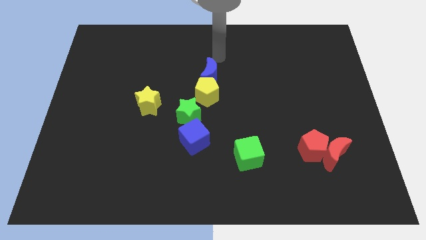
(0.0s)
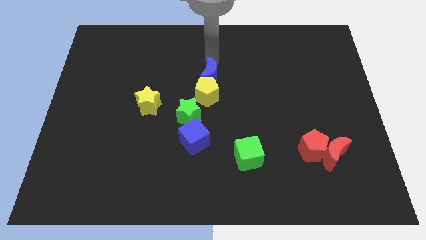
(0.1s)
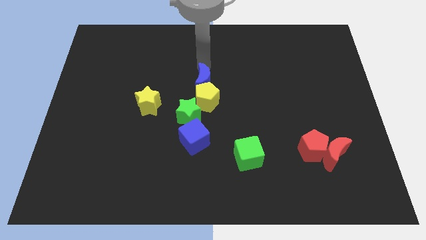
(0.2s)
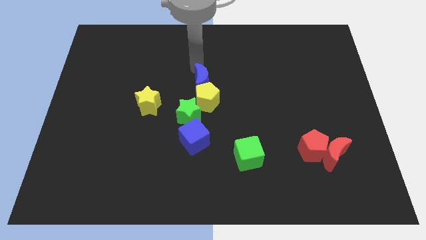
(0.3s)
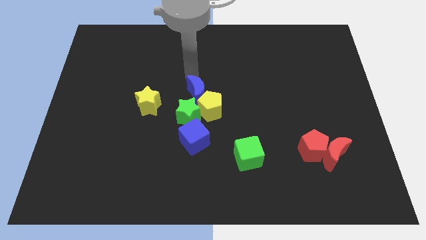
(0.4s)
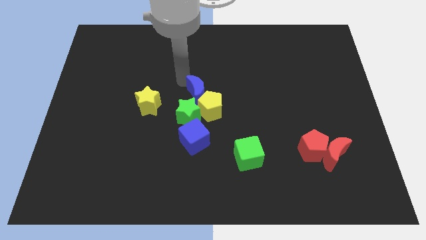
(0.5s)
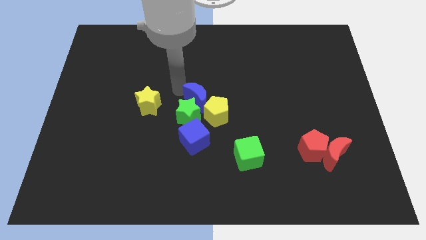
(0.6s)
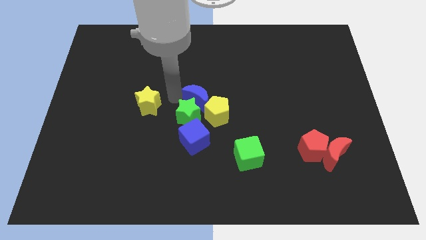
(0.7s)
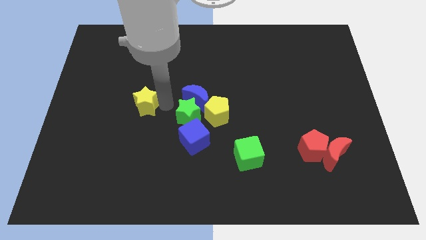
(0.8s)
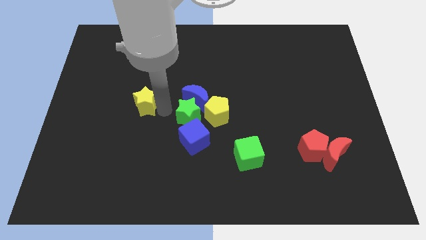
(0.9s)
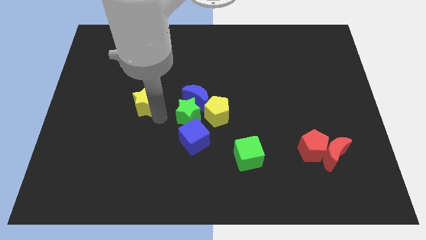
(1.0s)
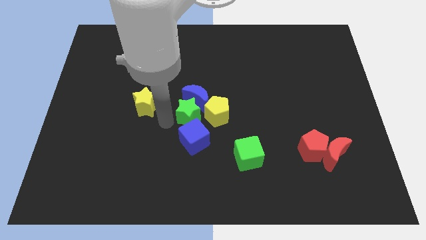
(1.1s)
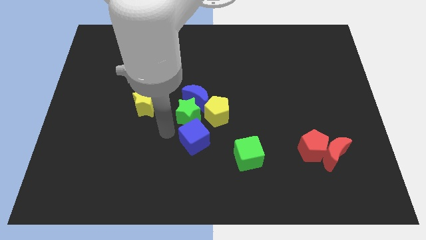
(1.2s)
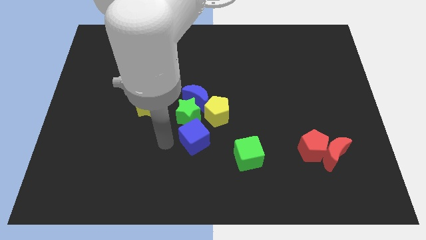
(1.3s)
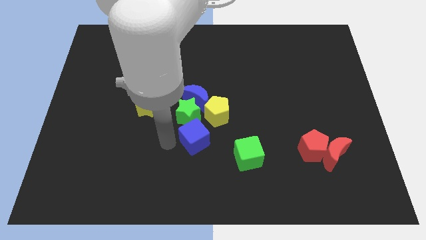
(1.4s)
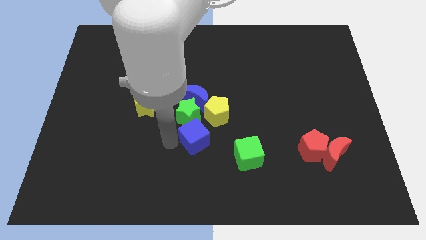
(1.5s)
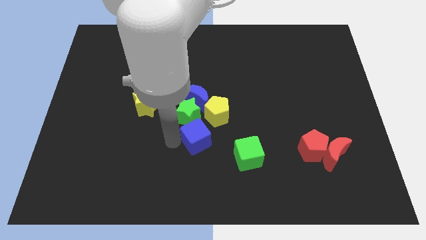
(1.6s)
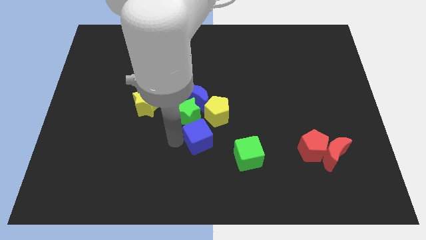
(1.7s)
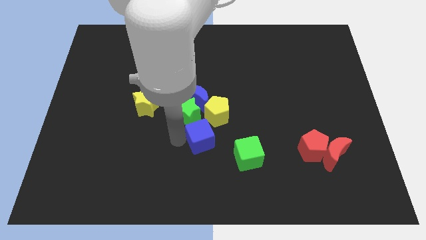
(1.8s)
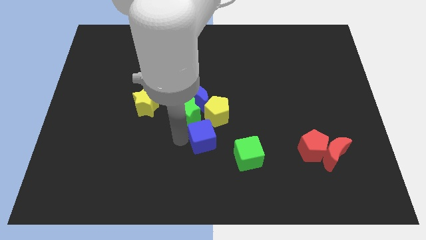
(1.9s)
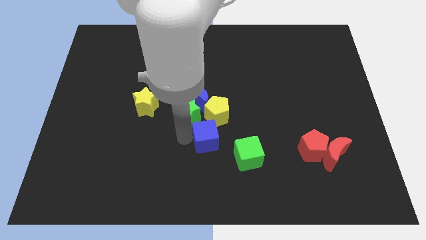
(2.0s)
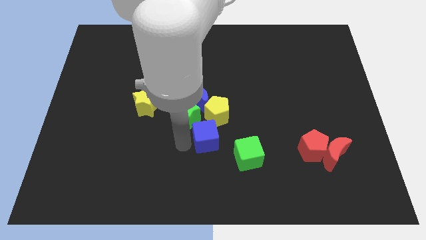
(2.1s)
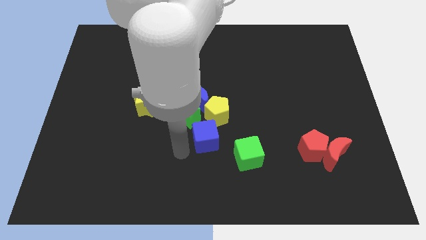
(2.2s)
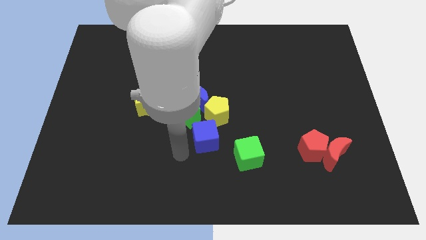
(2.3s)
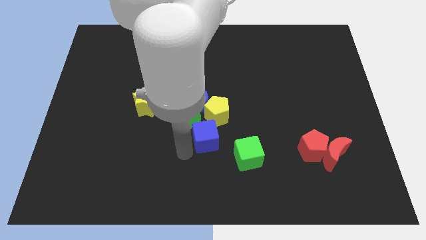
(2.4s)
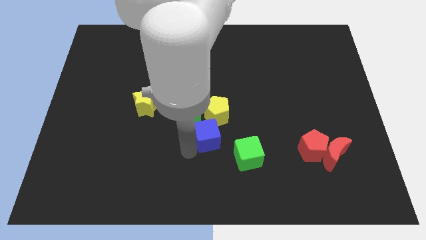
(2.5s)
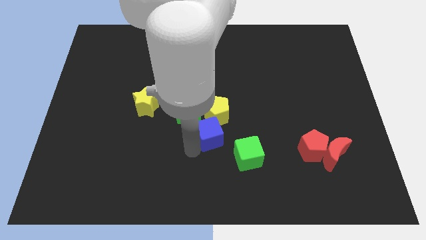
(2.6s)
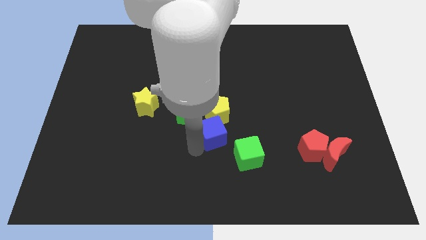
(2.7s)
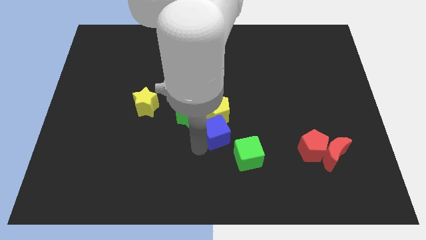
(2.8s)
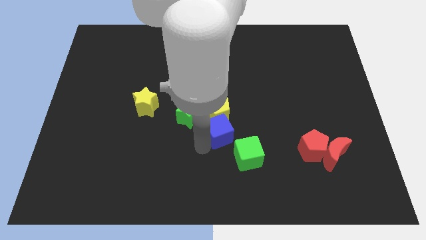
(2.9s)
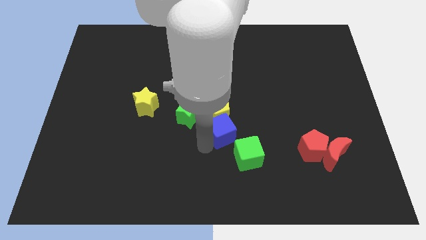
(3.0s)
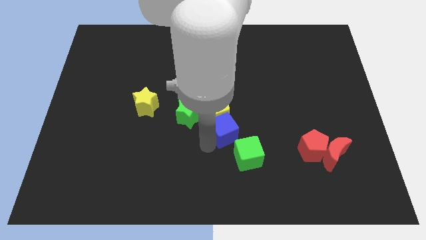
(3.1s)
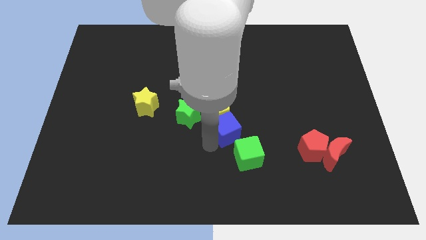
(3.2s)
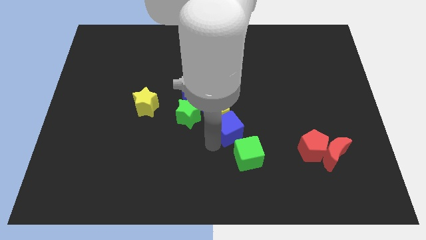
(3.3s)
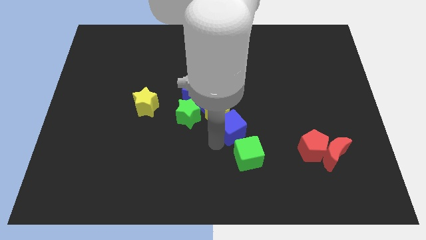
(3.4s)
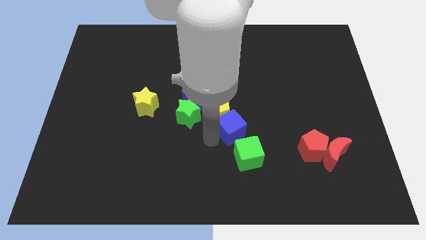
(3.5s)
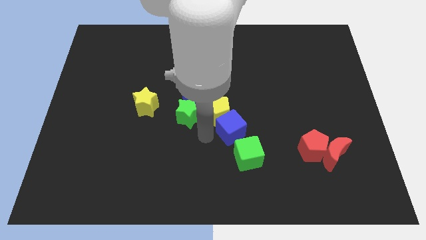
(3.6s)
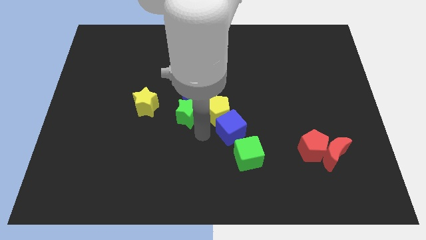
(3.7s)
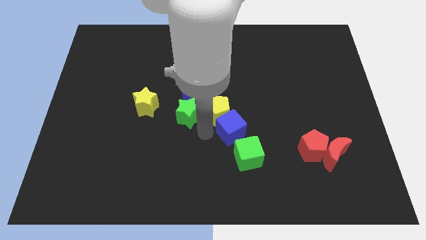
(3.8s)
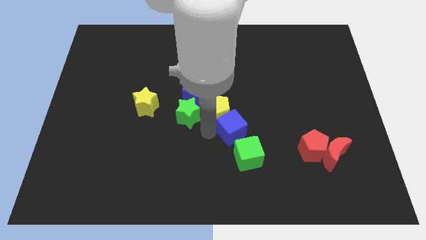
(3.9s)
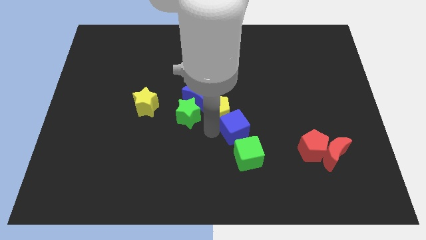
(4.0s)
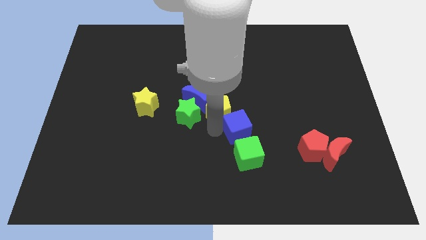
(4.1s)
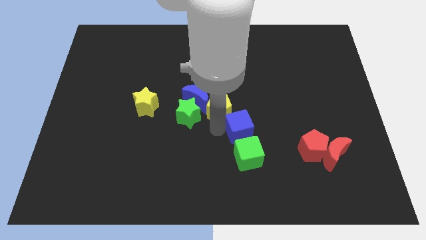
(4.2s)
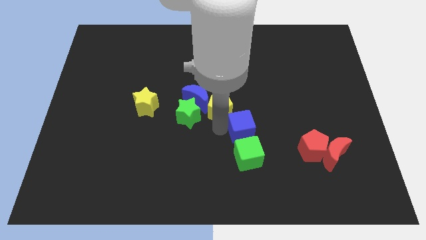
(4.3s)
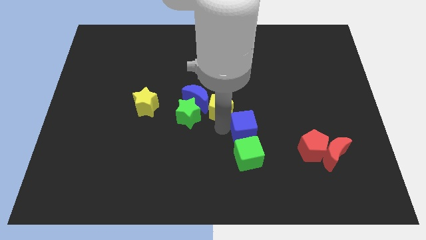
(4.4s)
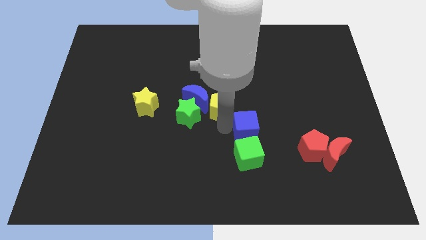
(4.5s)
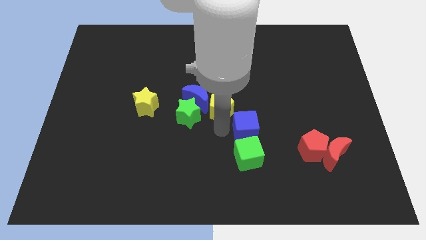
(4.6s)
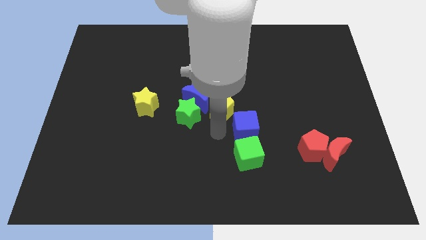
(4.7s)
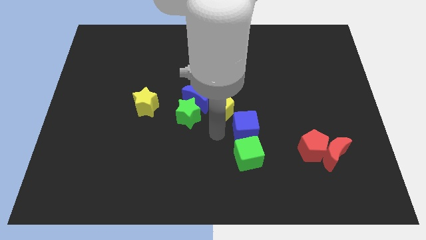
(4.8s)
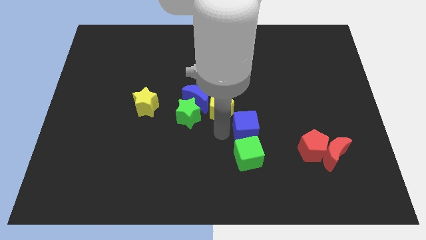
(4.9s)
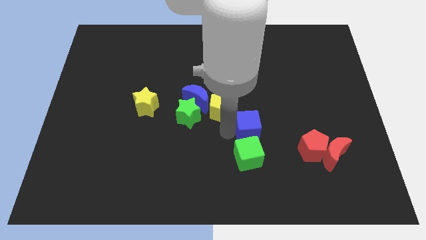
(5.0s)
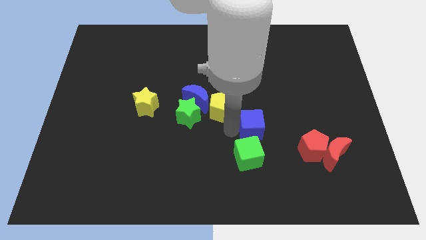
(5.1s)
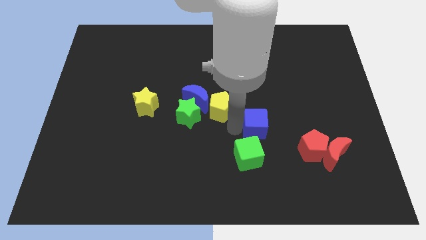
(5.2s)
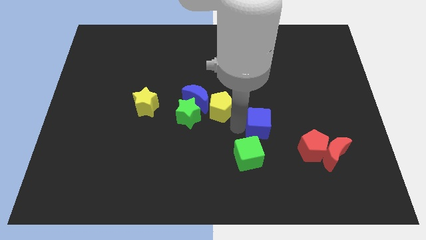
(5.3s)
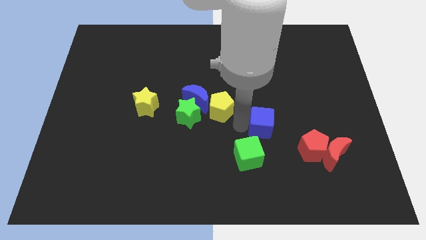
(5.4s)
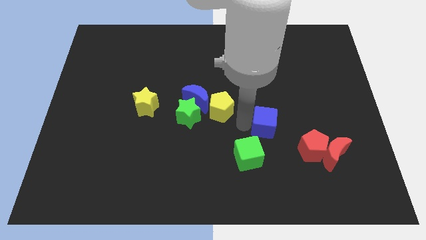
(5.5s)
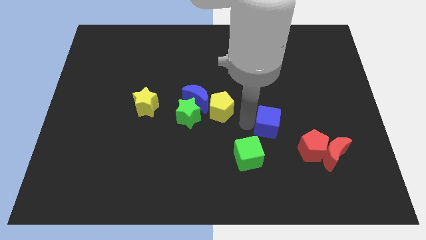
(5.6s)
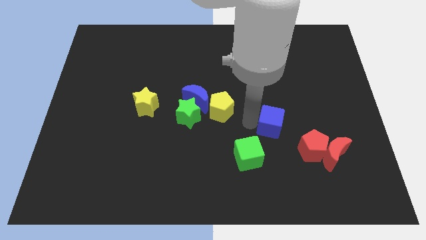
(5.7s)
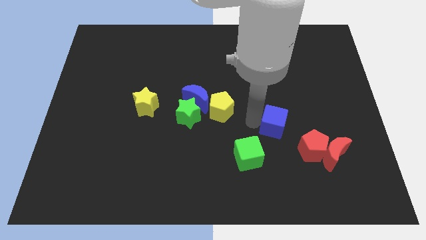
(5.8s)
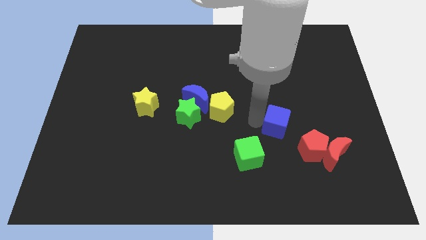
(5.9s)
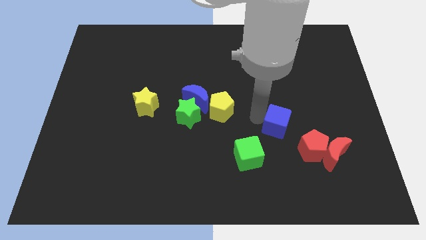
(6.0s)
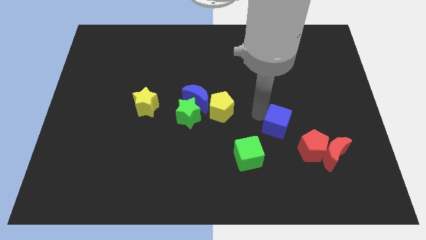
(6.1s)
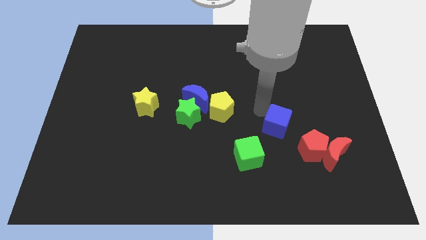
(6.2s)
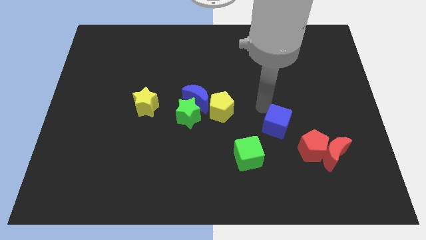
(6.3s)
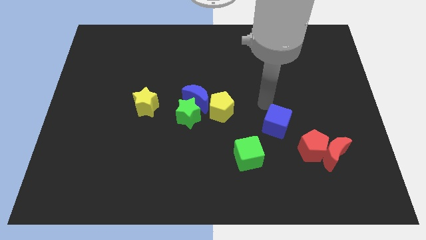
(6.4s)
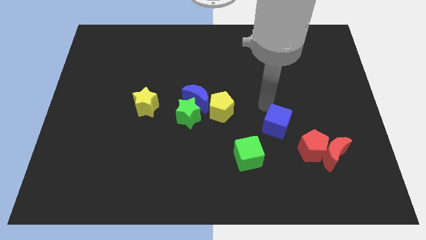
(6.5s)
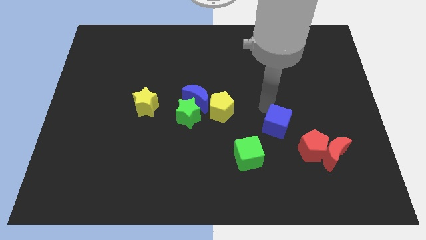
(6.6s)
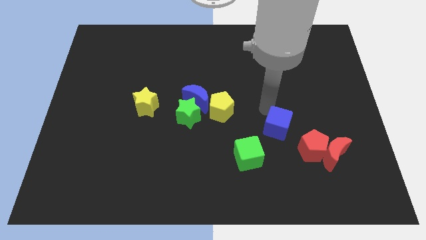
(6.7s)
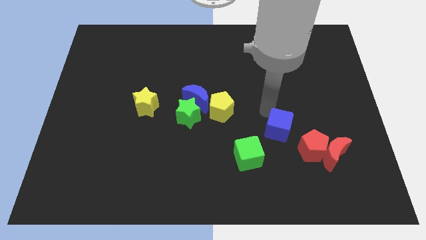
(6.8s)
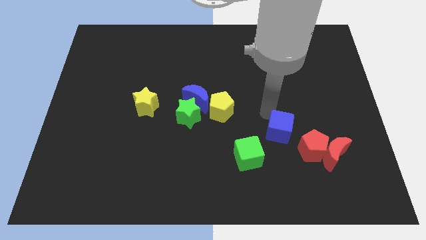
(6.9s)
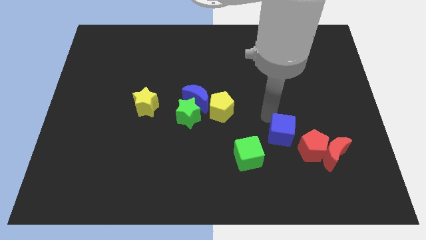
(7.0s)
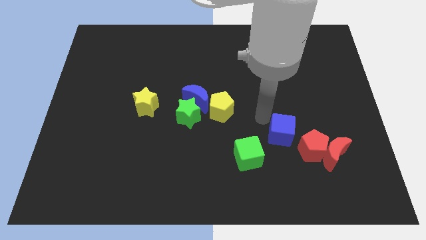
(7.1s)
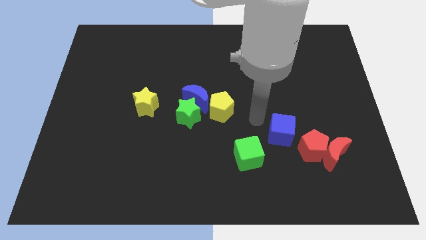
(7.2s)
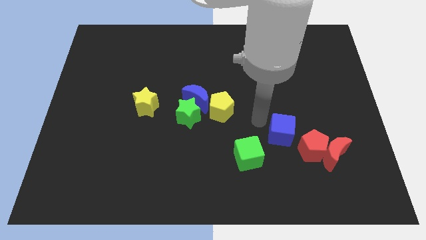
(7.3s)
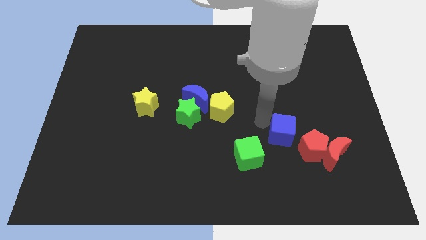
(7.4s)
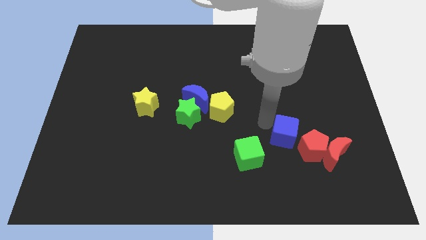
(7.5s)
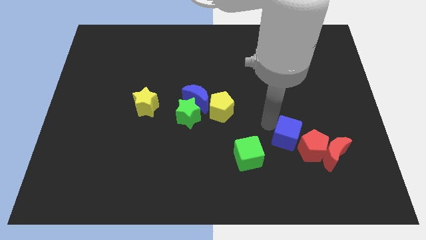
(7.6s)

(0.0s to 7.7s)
move the blue cube next to the red pentagon
